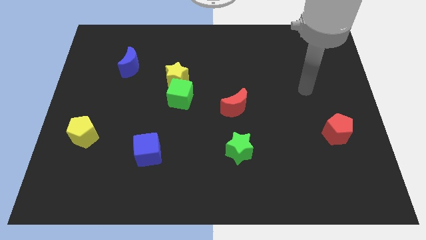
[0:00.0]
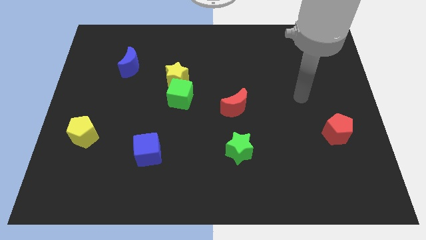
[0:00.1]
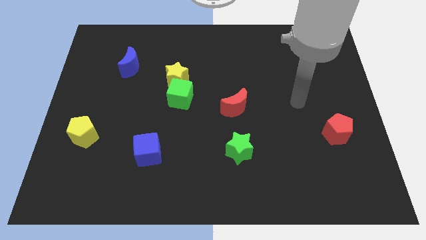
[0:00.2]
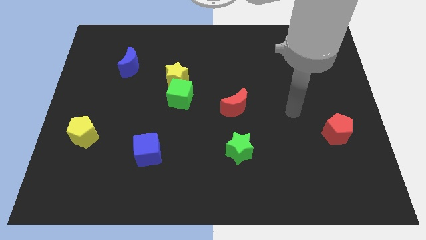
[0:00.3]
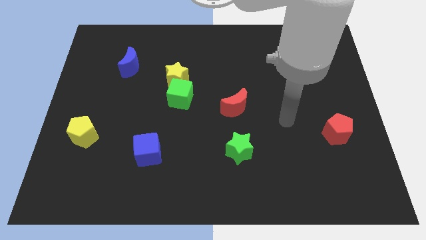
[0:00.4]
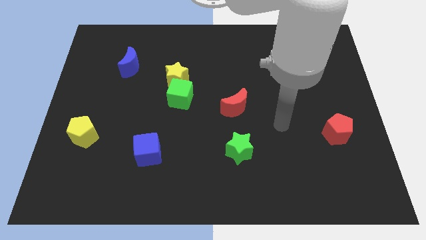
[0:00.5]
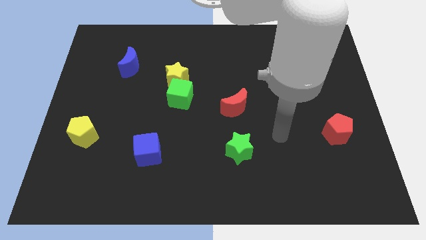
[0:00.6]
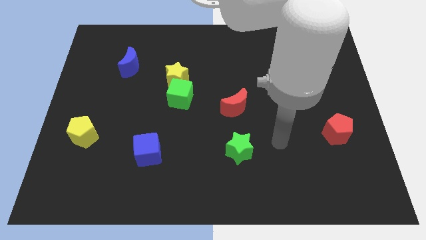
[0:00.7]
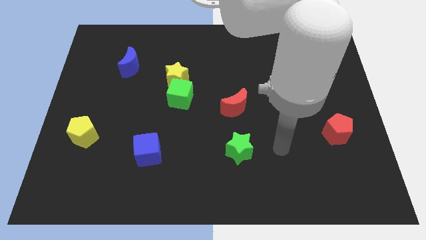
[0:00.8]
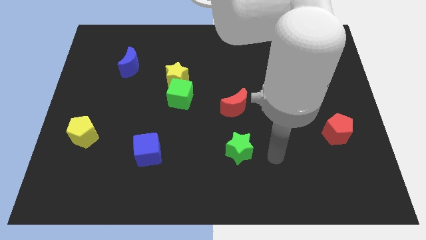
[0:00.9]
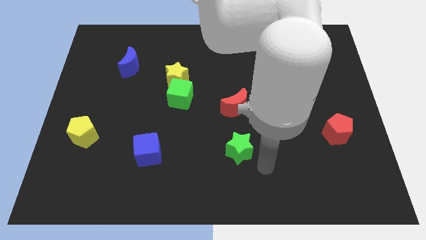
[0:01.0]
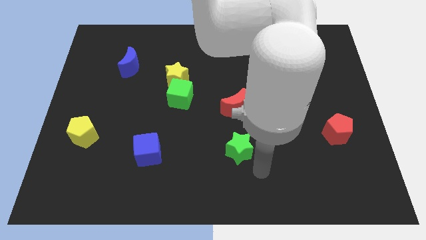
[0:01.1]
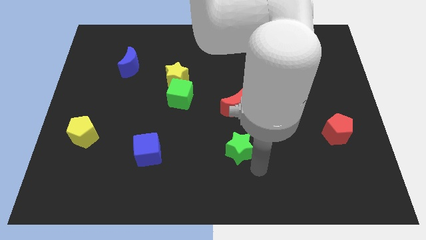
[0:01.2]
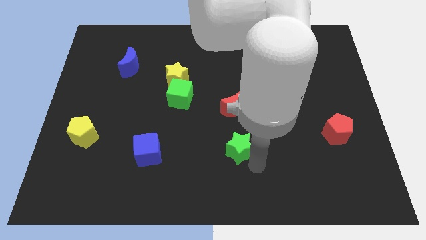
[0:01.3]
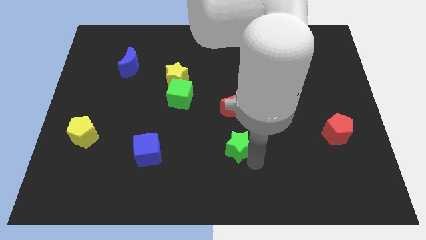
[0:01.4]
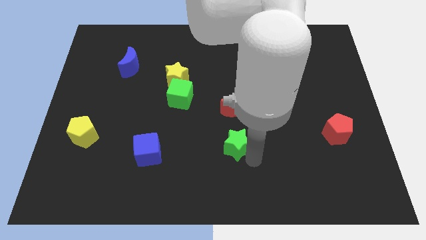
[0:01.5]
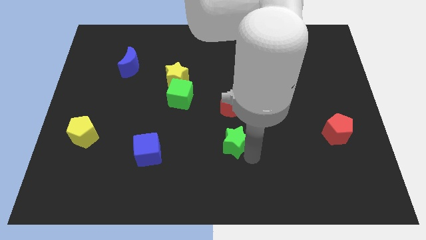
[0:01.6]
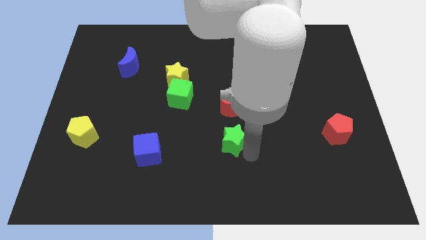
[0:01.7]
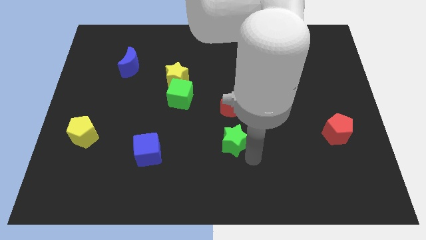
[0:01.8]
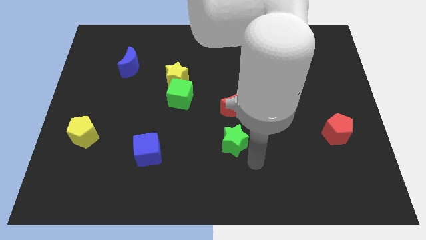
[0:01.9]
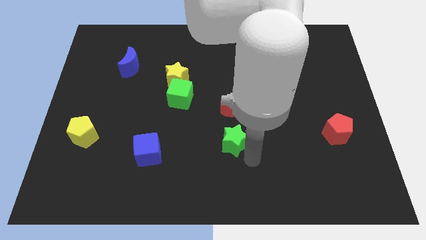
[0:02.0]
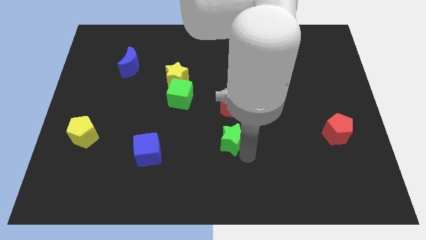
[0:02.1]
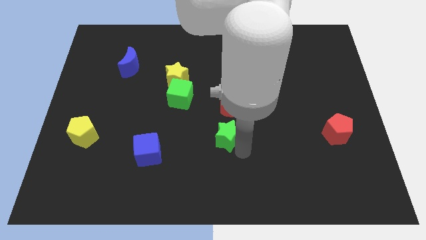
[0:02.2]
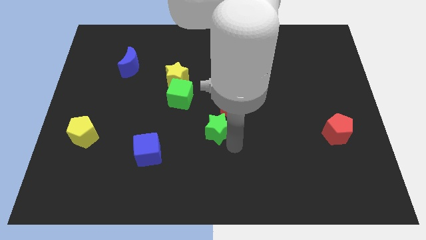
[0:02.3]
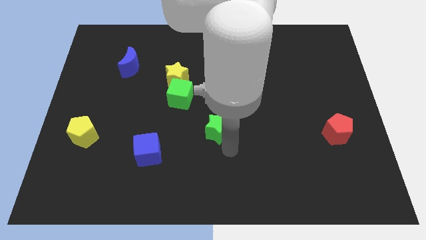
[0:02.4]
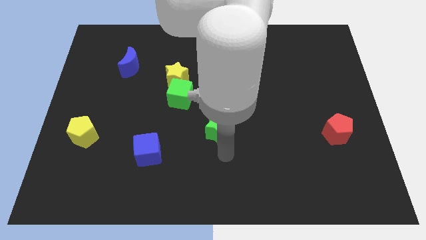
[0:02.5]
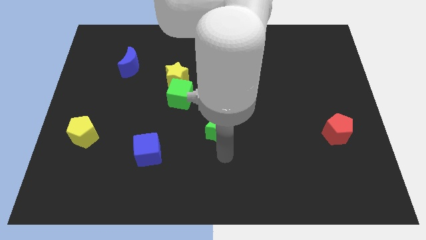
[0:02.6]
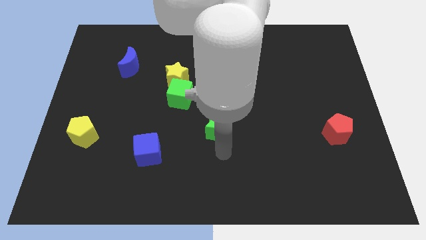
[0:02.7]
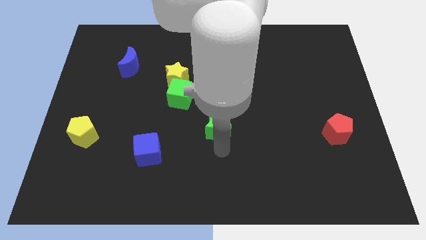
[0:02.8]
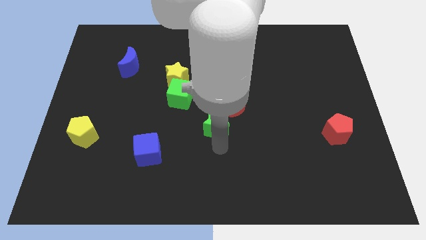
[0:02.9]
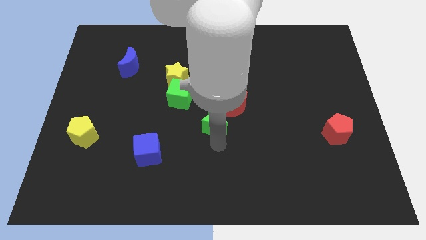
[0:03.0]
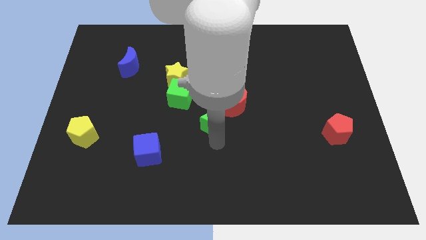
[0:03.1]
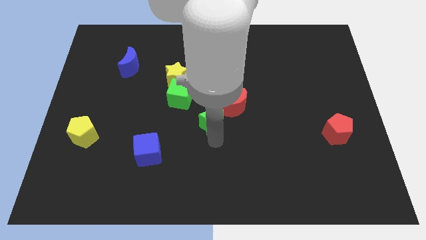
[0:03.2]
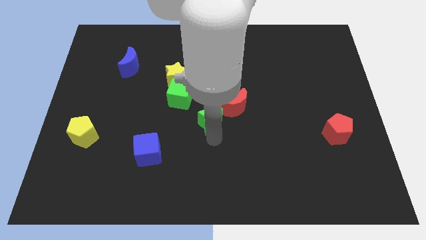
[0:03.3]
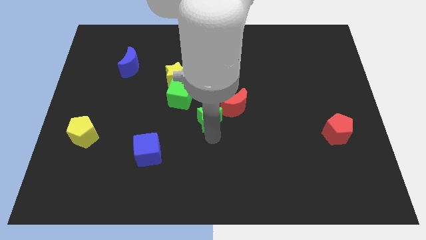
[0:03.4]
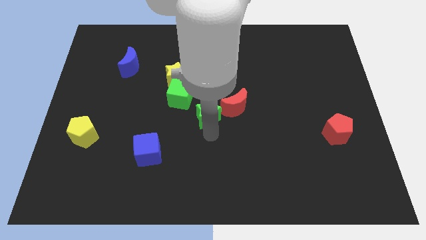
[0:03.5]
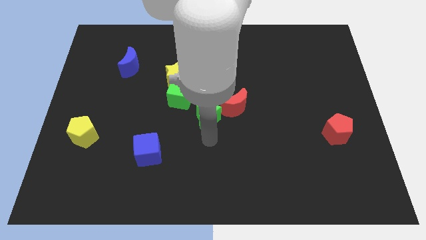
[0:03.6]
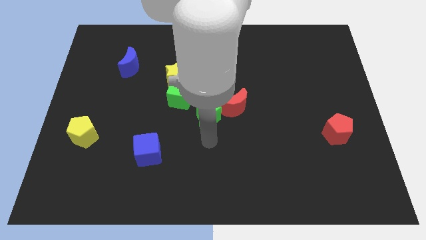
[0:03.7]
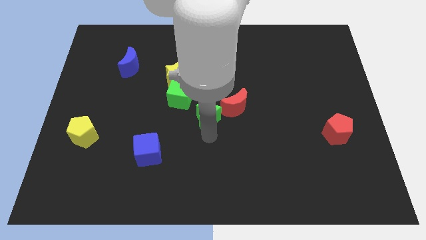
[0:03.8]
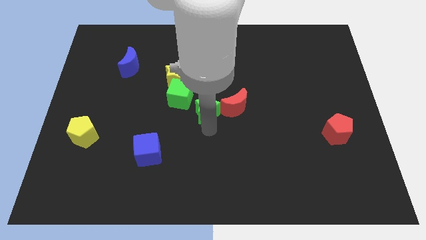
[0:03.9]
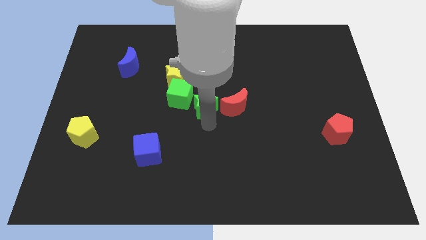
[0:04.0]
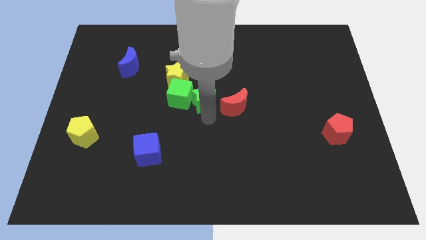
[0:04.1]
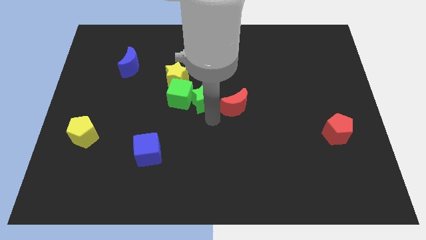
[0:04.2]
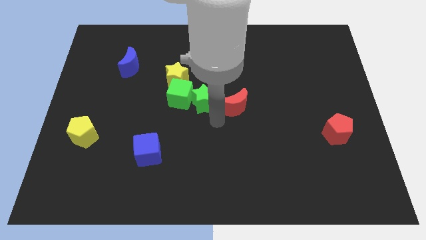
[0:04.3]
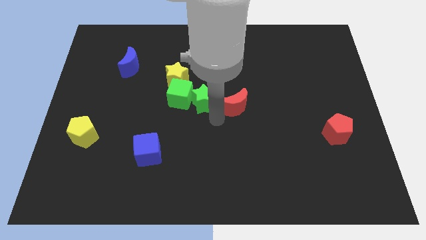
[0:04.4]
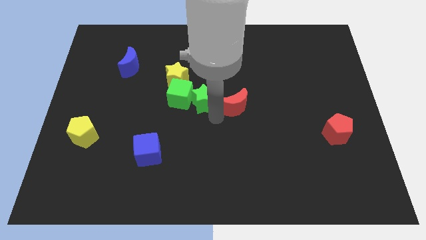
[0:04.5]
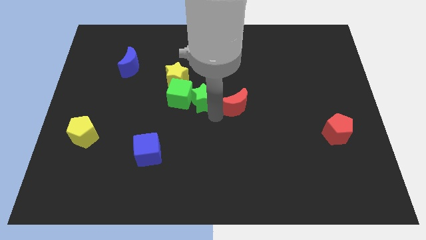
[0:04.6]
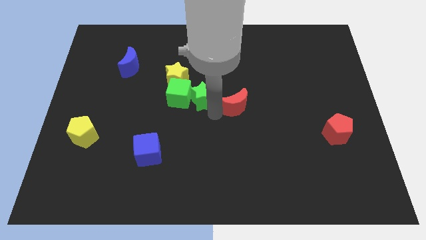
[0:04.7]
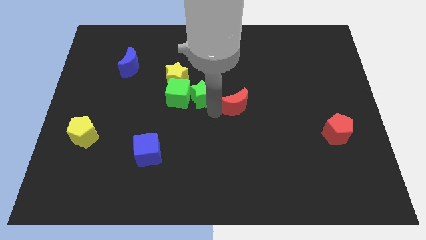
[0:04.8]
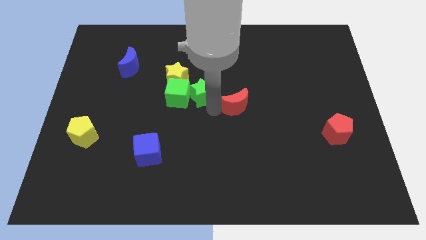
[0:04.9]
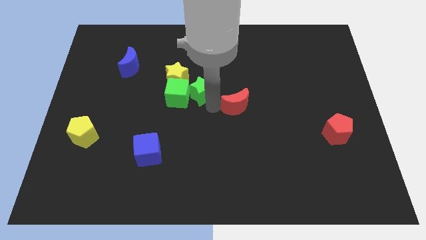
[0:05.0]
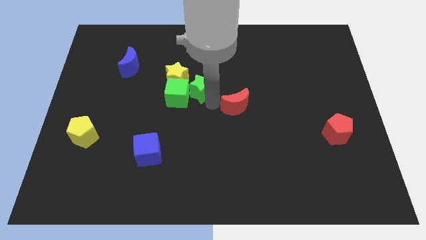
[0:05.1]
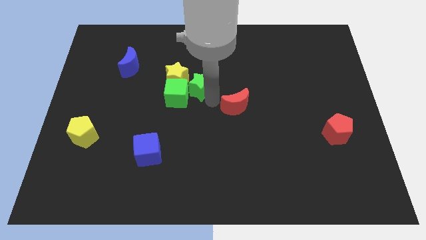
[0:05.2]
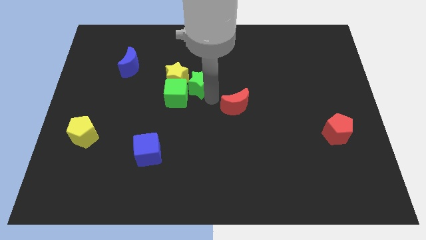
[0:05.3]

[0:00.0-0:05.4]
put the green star towards the yellow star
